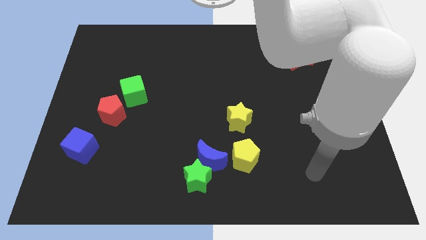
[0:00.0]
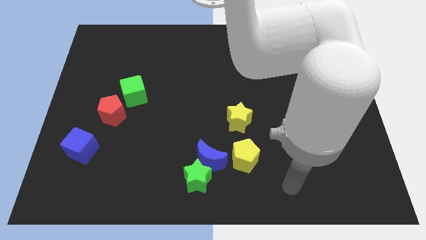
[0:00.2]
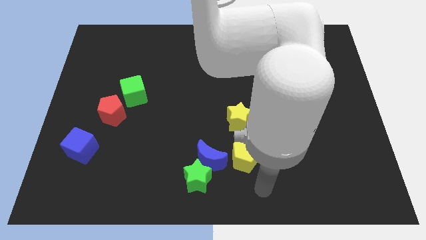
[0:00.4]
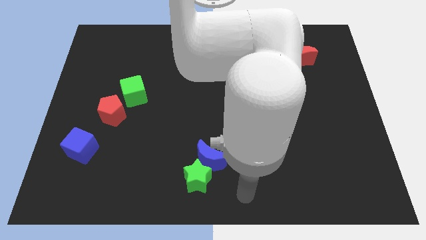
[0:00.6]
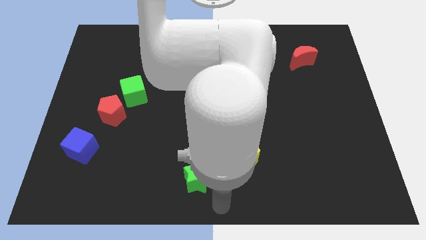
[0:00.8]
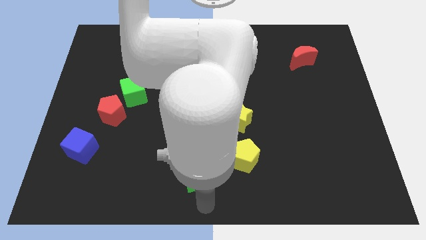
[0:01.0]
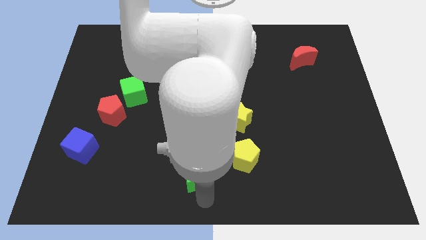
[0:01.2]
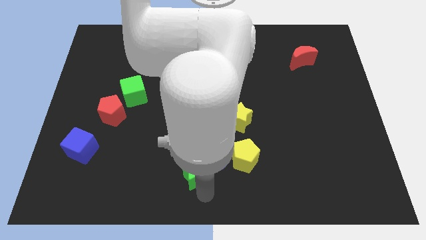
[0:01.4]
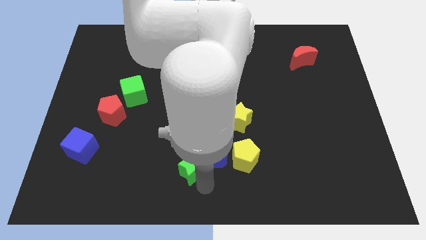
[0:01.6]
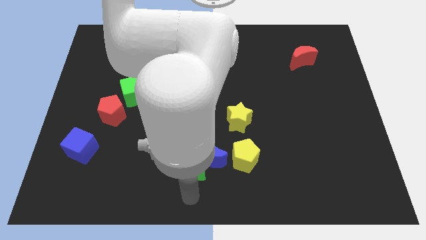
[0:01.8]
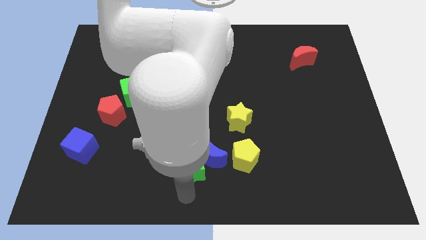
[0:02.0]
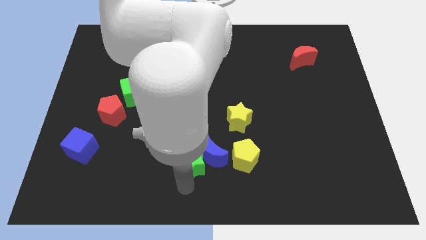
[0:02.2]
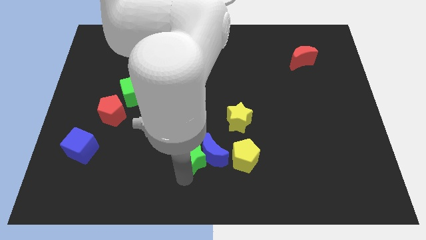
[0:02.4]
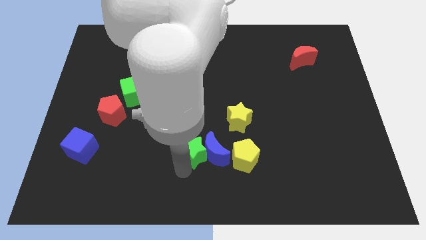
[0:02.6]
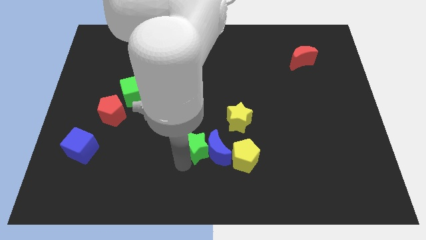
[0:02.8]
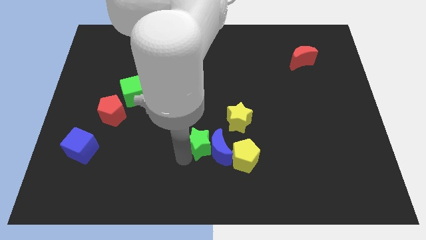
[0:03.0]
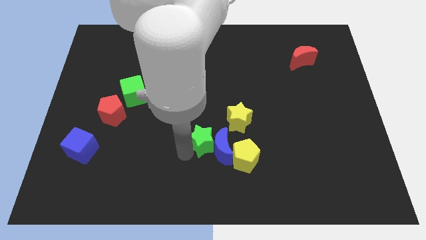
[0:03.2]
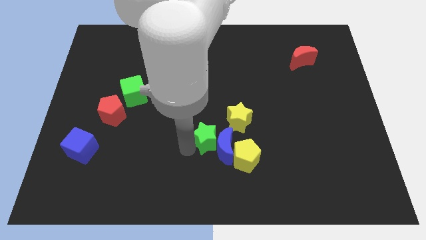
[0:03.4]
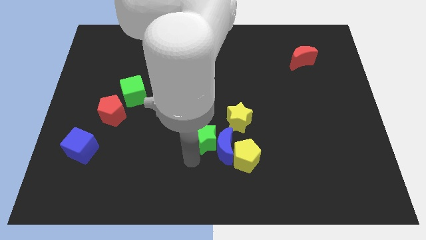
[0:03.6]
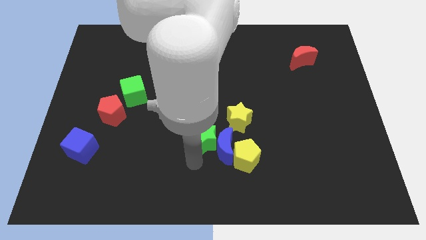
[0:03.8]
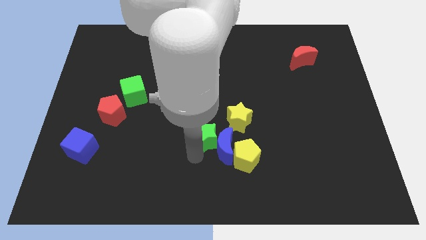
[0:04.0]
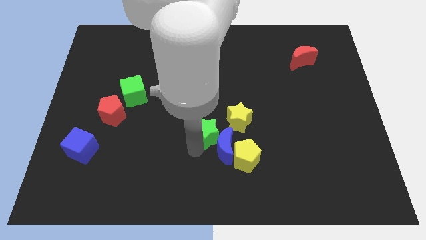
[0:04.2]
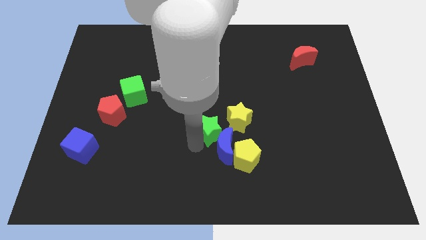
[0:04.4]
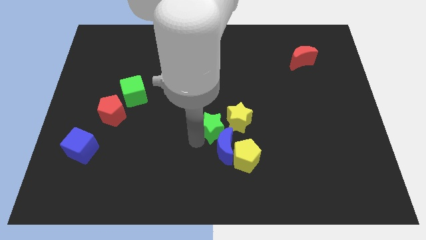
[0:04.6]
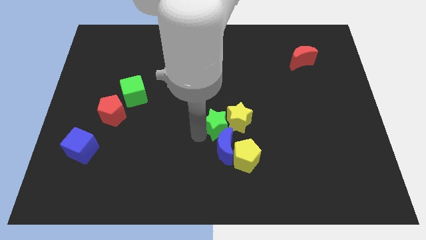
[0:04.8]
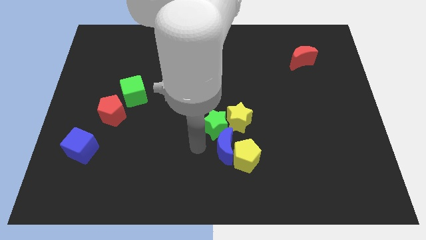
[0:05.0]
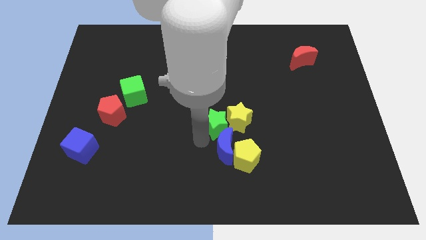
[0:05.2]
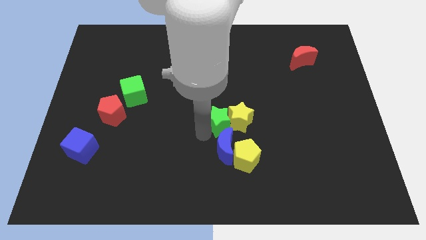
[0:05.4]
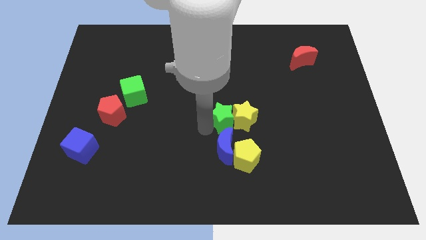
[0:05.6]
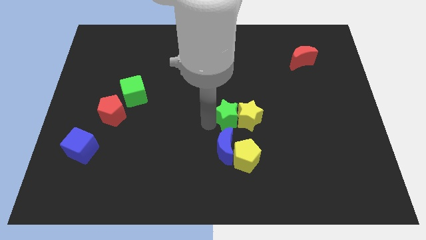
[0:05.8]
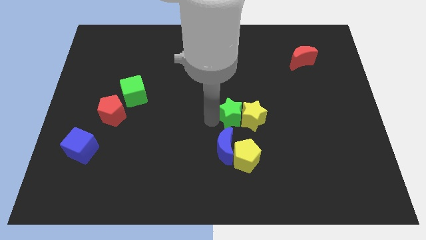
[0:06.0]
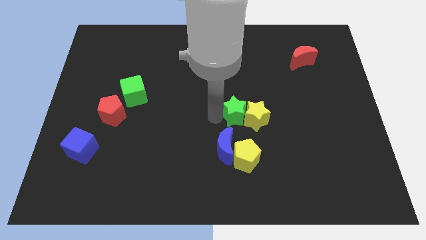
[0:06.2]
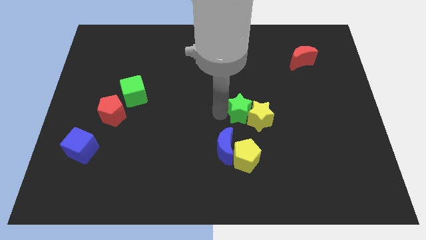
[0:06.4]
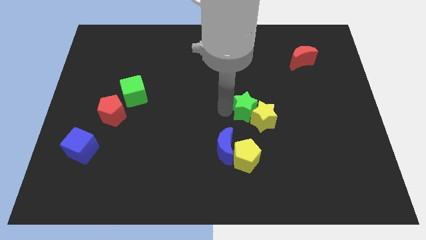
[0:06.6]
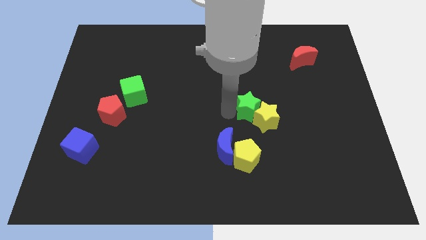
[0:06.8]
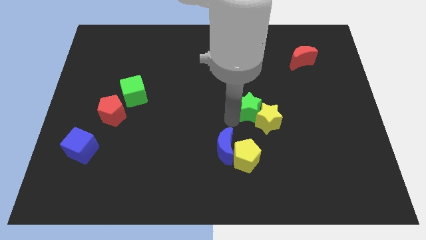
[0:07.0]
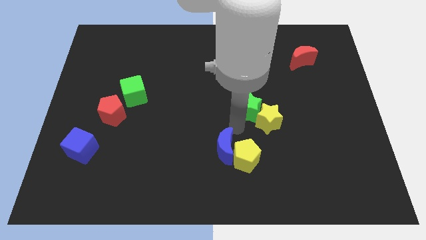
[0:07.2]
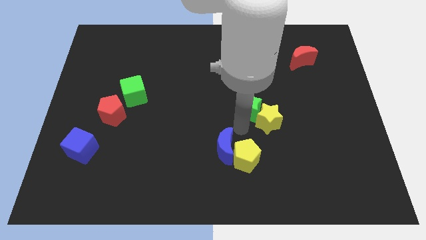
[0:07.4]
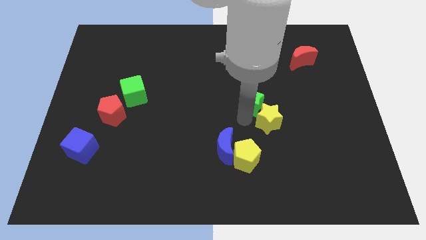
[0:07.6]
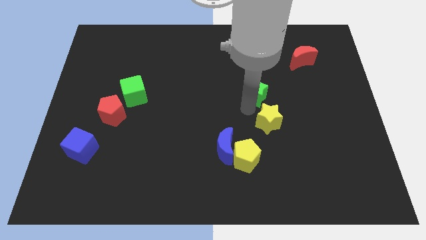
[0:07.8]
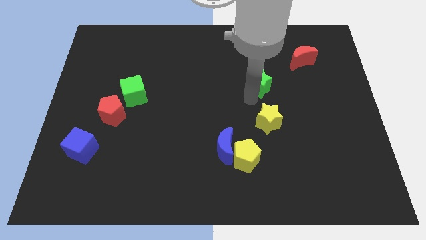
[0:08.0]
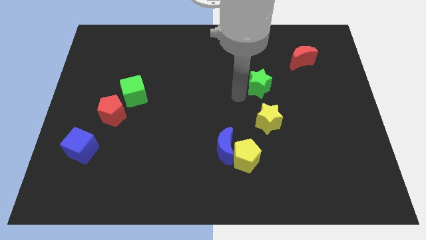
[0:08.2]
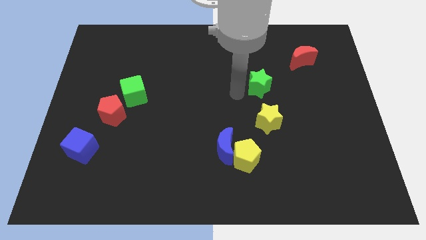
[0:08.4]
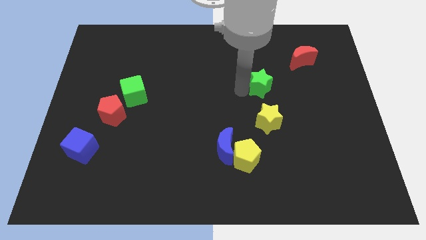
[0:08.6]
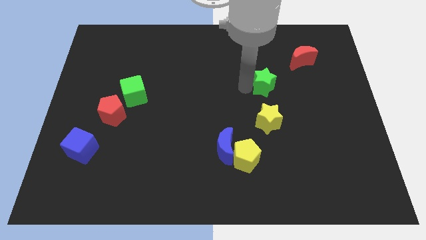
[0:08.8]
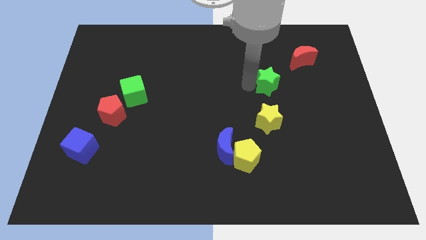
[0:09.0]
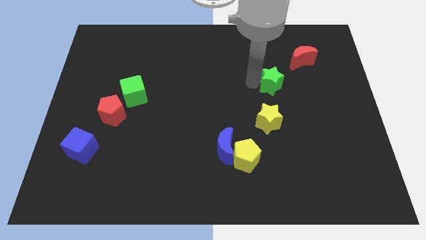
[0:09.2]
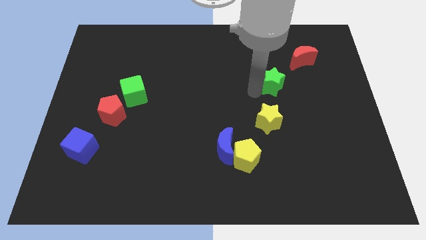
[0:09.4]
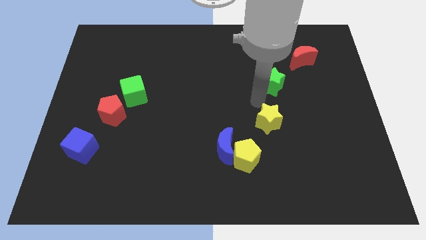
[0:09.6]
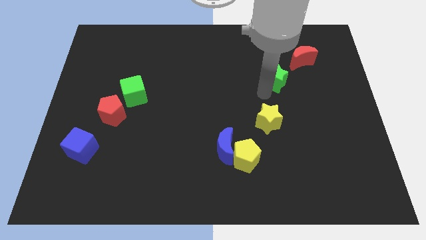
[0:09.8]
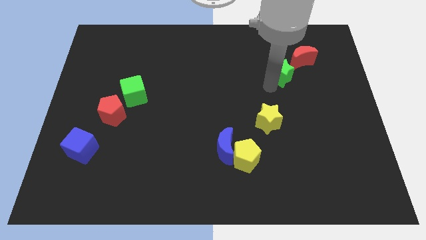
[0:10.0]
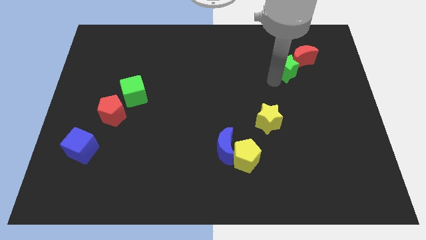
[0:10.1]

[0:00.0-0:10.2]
put the green star to the red moon

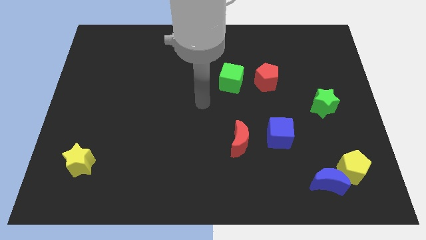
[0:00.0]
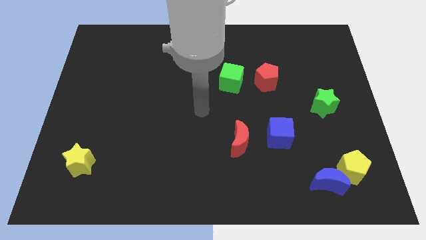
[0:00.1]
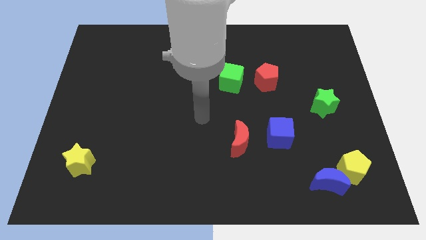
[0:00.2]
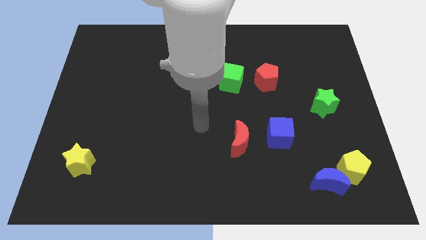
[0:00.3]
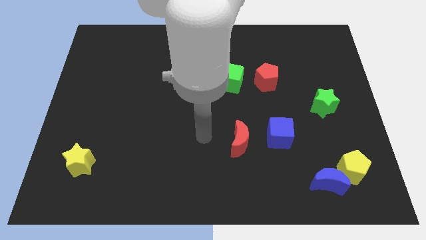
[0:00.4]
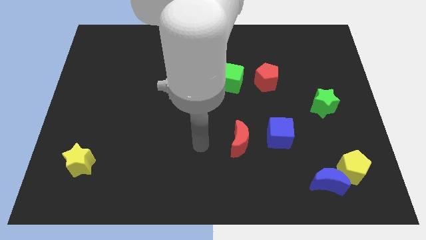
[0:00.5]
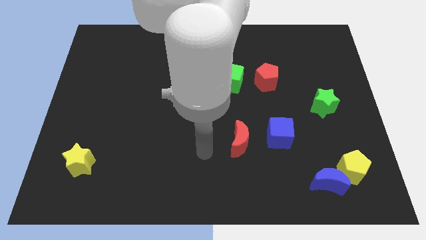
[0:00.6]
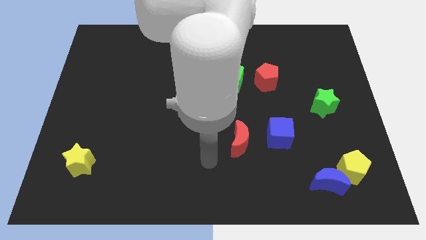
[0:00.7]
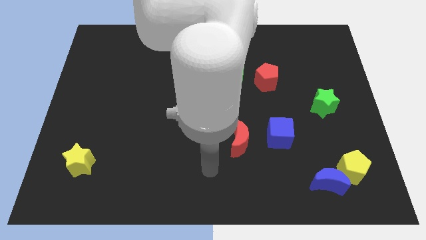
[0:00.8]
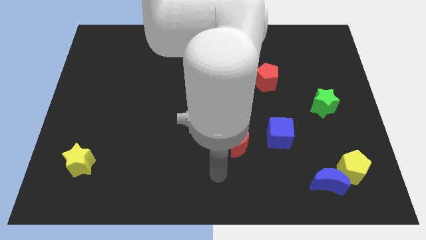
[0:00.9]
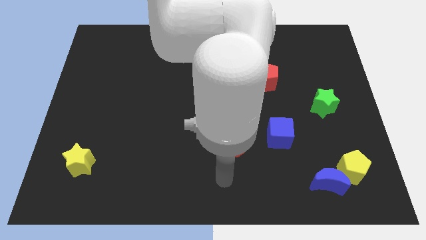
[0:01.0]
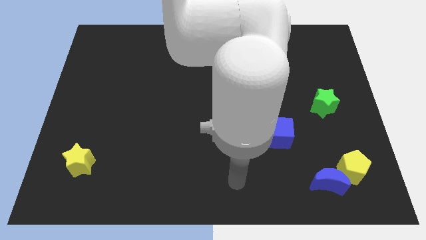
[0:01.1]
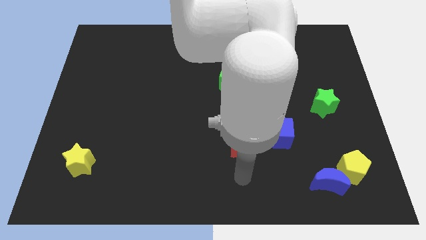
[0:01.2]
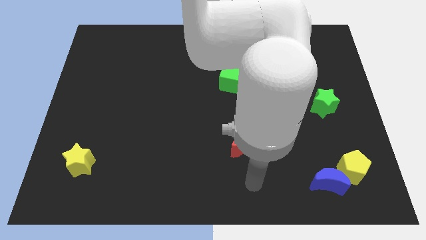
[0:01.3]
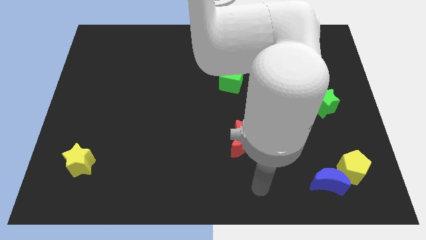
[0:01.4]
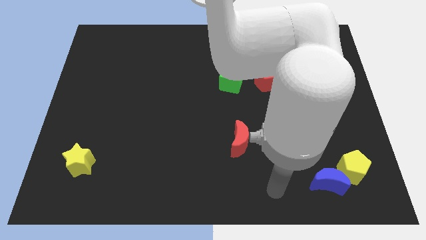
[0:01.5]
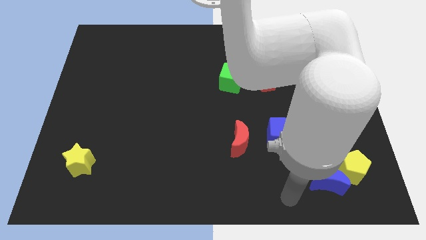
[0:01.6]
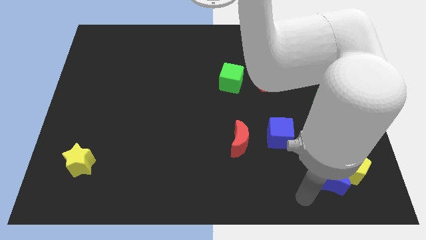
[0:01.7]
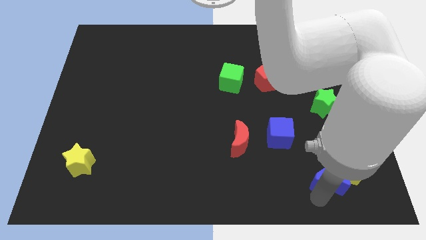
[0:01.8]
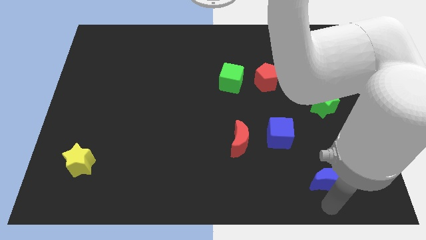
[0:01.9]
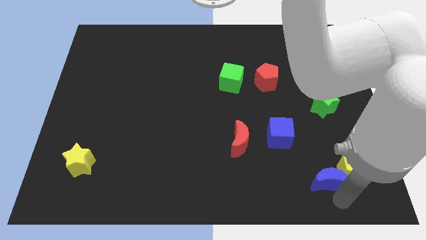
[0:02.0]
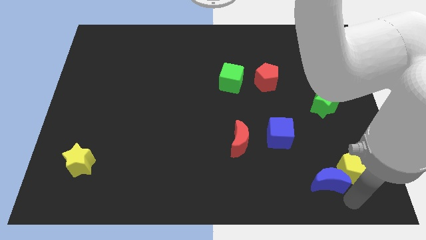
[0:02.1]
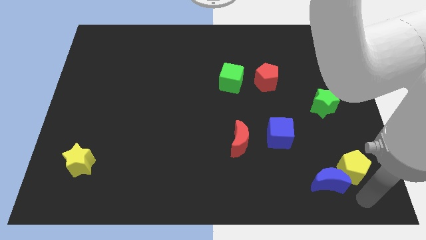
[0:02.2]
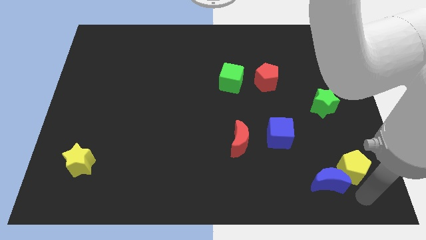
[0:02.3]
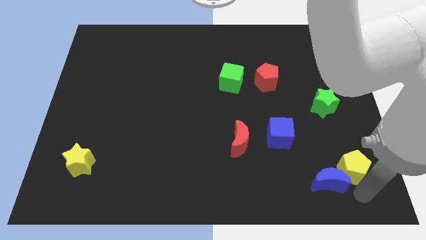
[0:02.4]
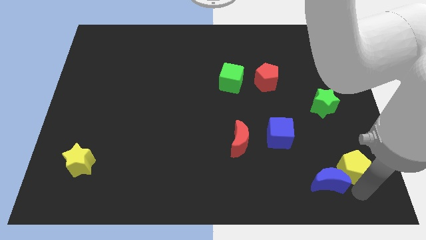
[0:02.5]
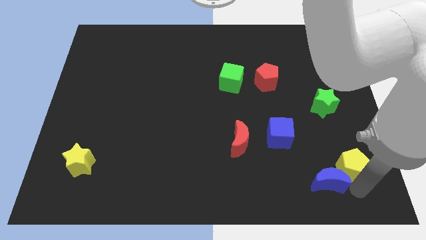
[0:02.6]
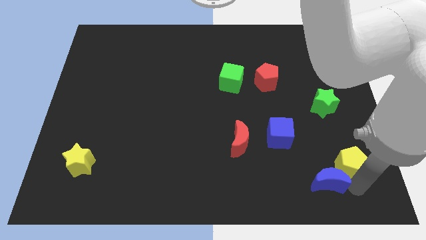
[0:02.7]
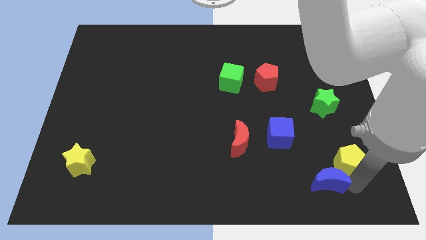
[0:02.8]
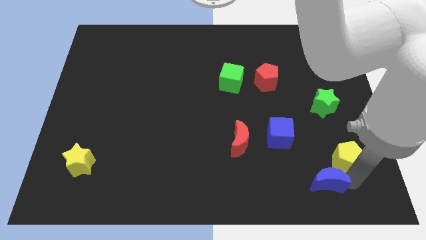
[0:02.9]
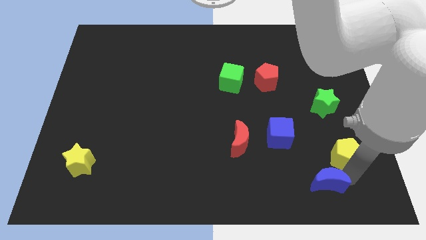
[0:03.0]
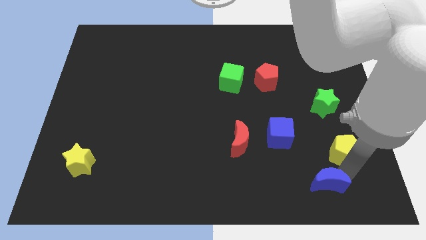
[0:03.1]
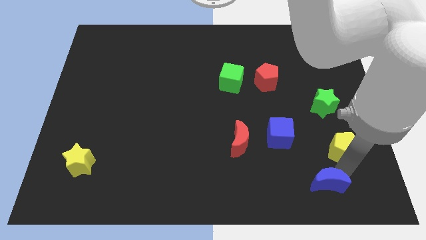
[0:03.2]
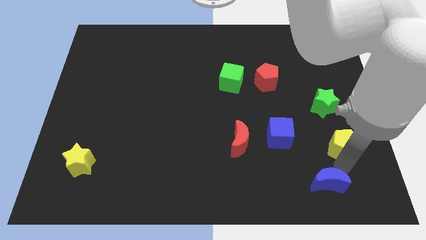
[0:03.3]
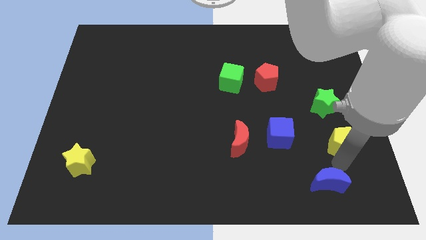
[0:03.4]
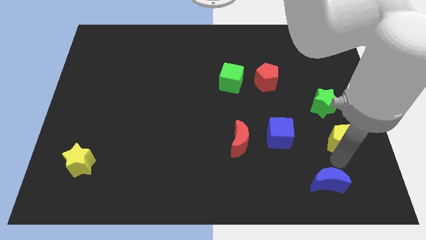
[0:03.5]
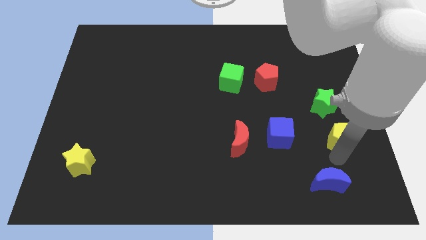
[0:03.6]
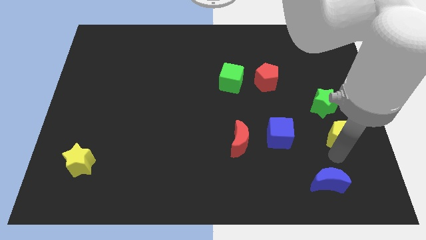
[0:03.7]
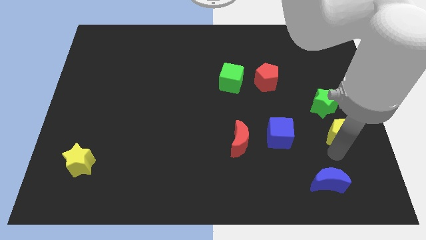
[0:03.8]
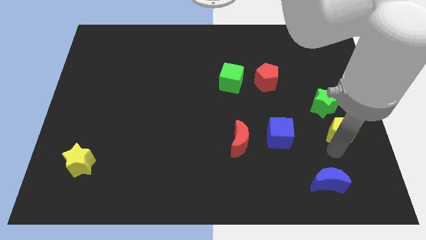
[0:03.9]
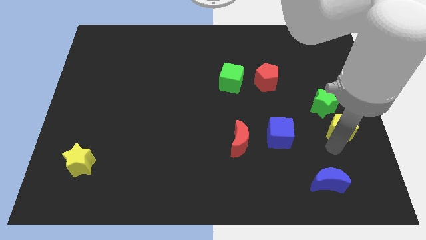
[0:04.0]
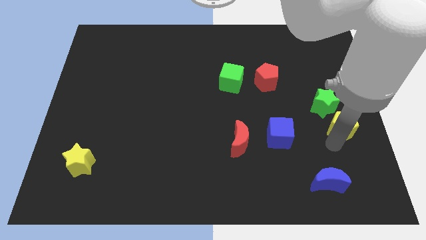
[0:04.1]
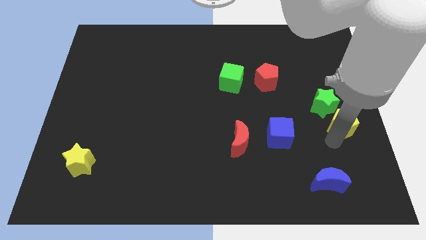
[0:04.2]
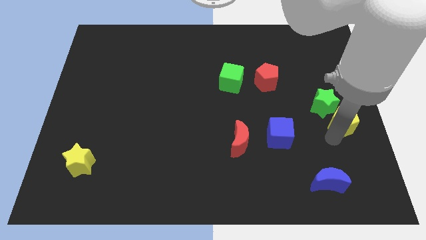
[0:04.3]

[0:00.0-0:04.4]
put the yellow pentagon next to the green star
